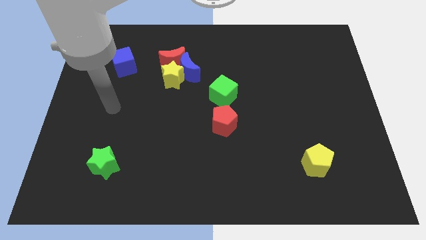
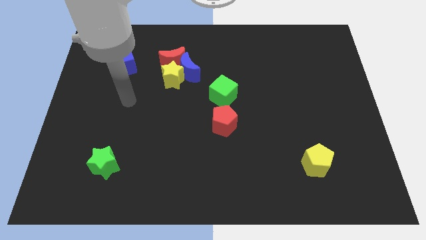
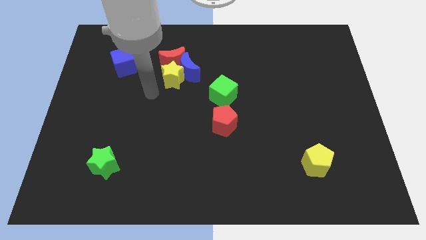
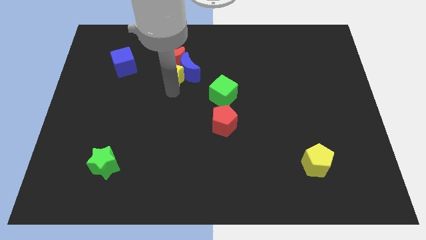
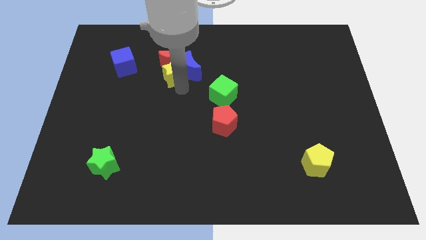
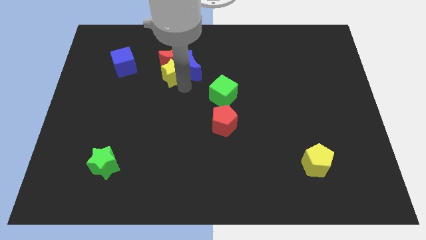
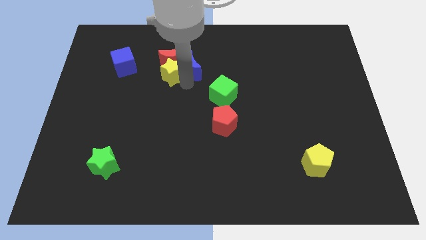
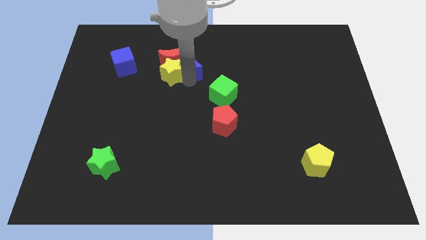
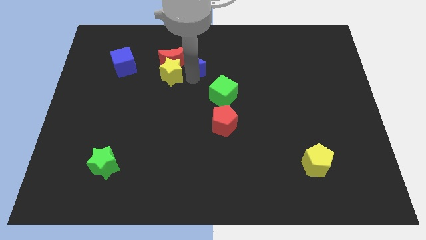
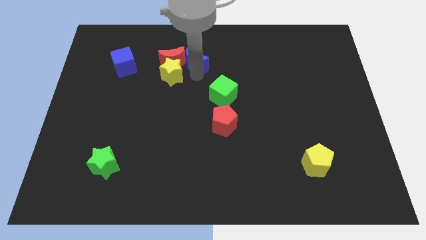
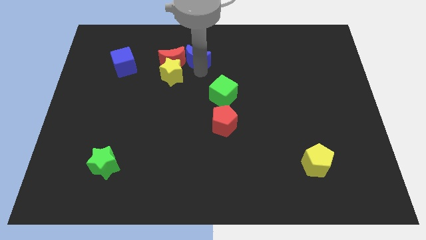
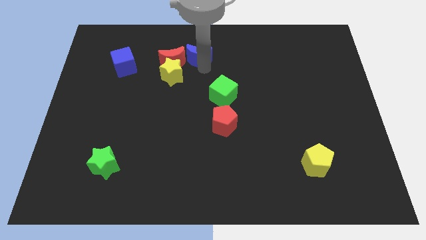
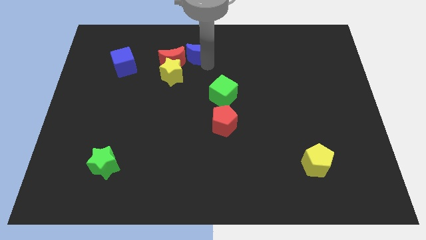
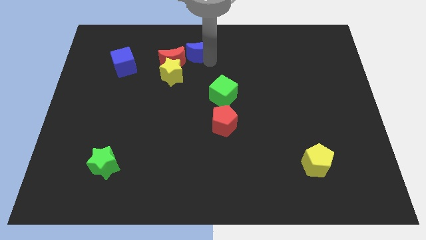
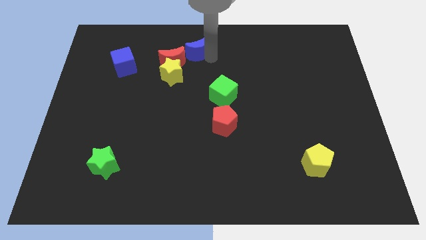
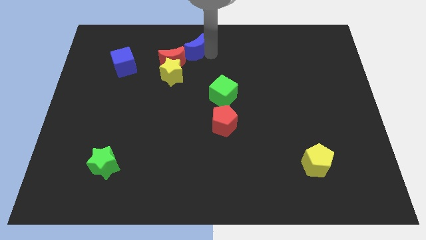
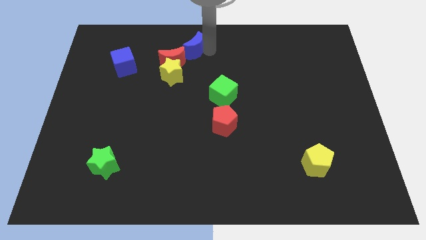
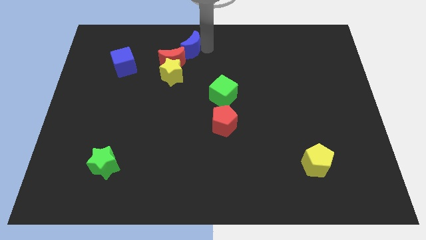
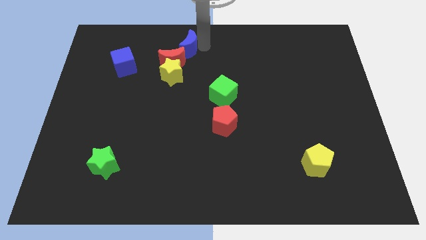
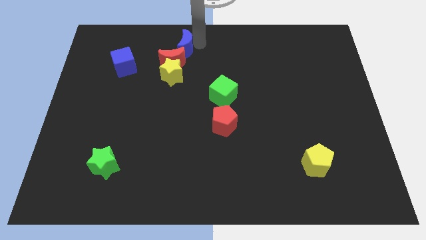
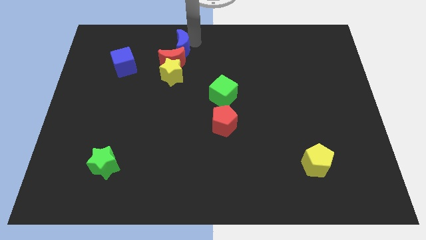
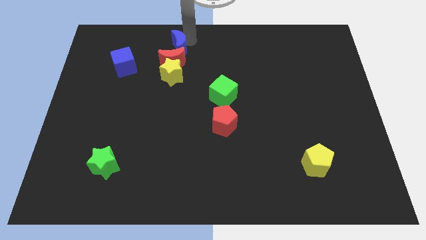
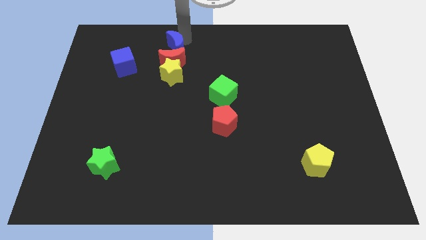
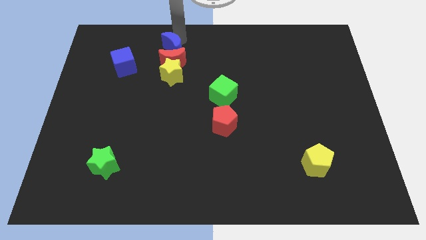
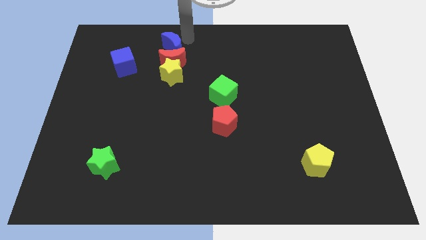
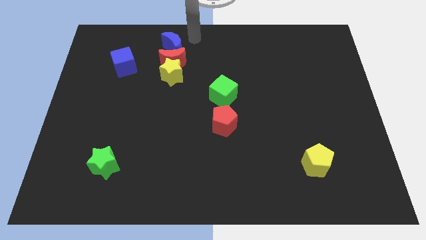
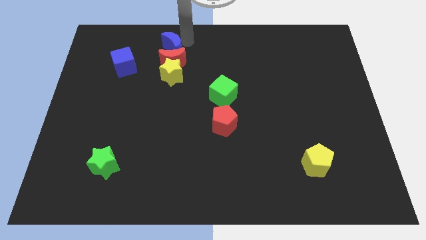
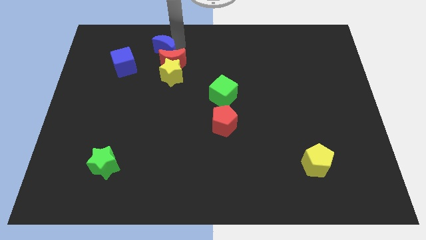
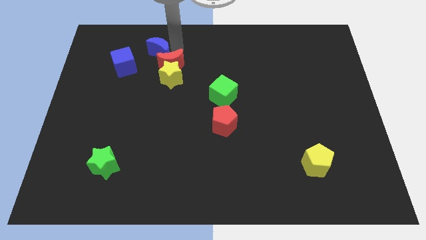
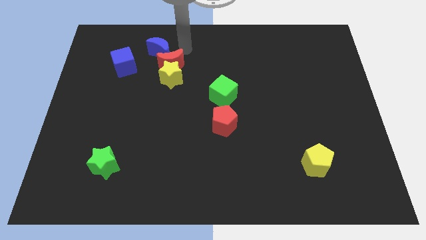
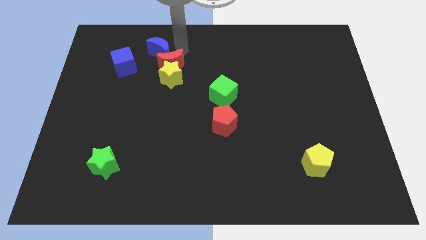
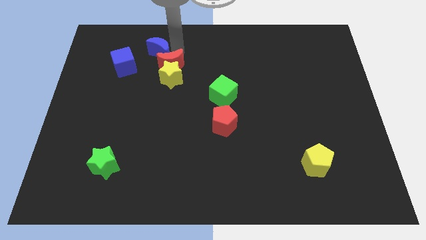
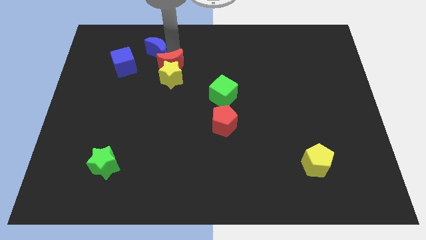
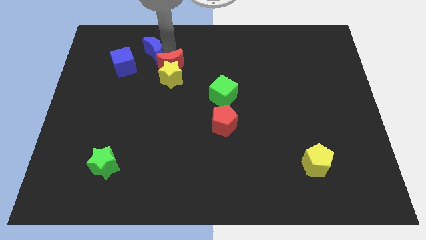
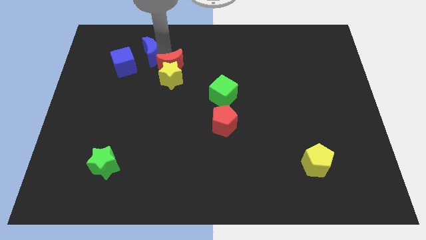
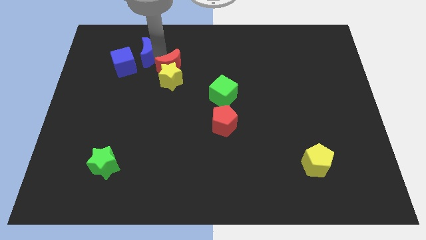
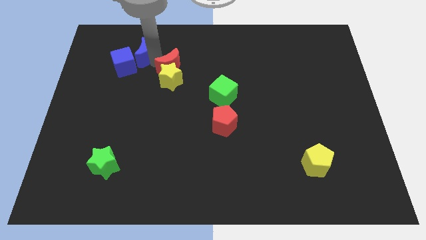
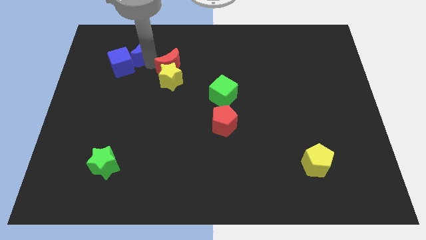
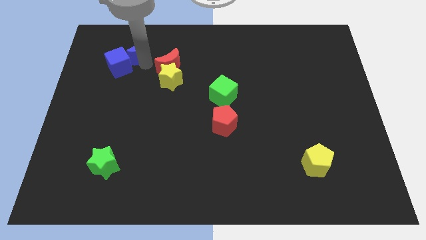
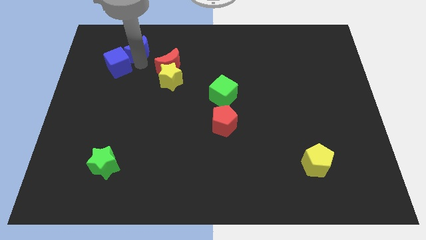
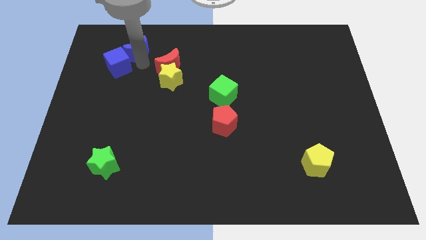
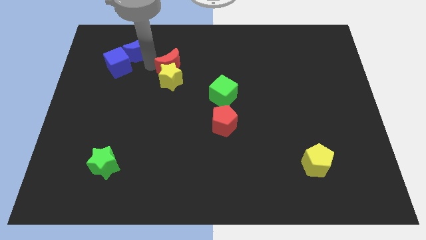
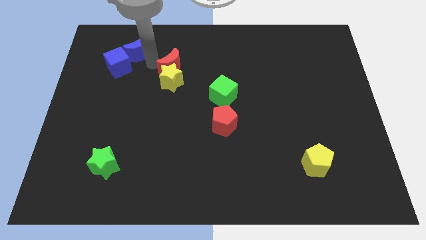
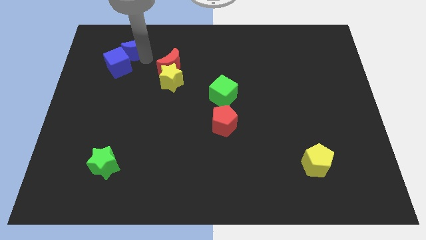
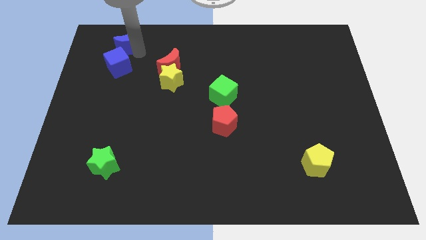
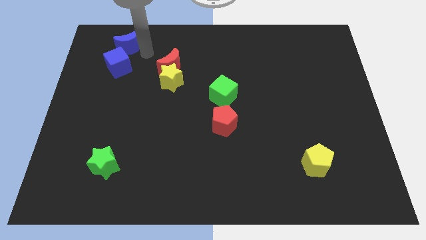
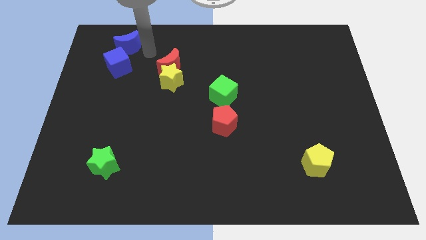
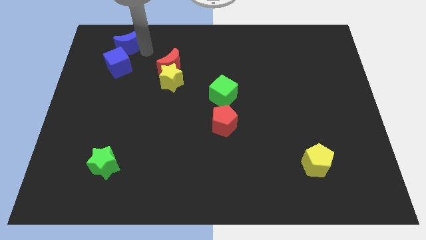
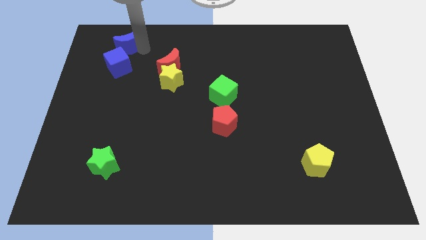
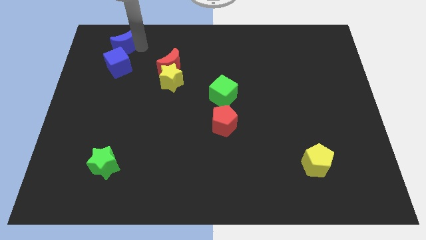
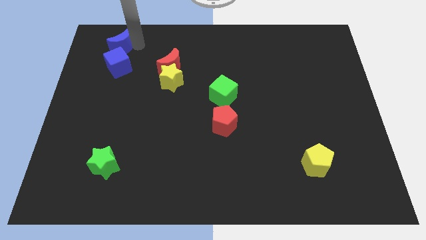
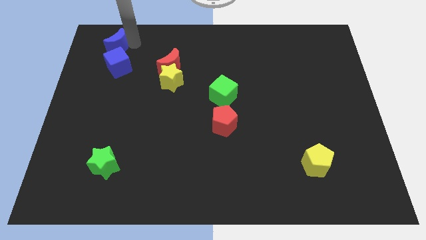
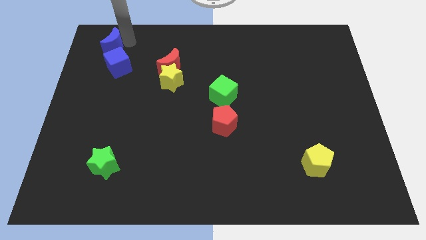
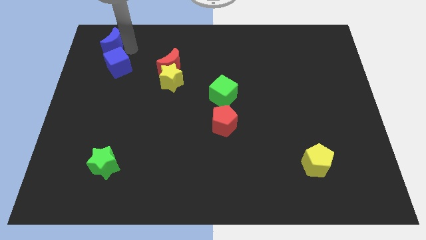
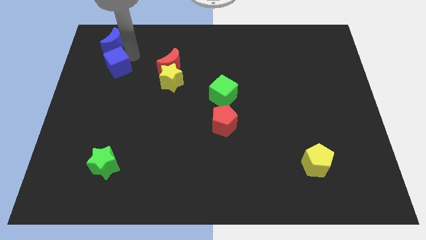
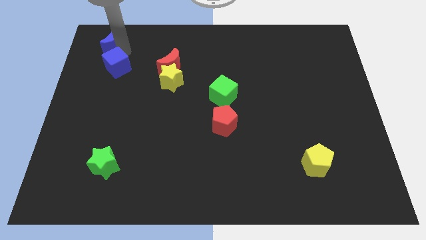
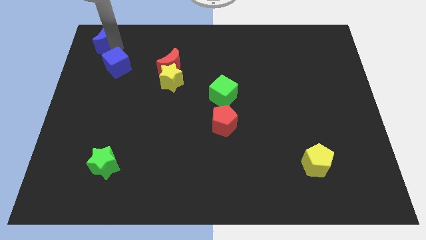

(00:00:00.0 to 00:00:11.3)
put the blue moon to the top left of the board
